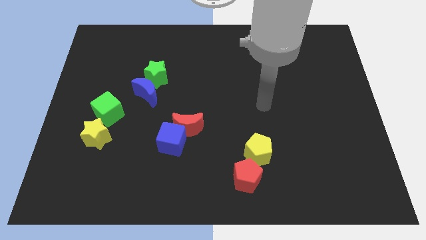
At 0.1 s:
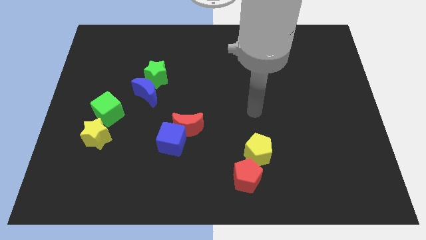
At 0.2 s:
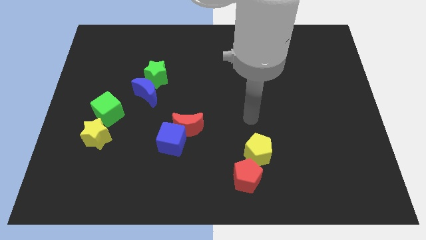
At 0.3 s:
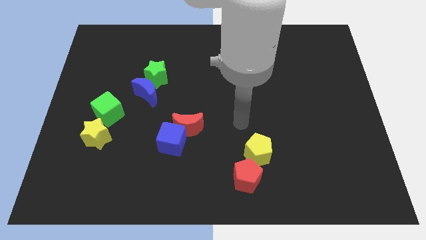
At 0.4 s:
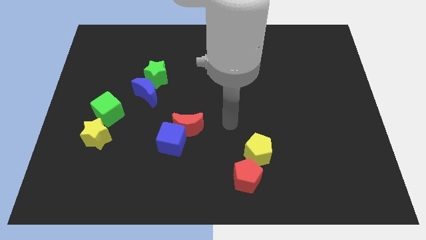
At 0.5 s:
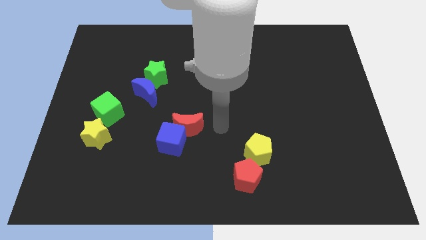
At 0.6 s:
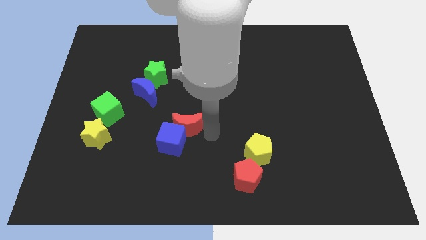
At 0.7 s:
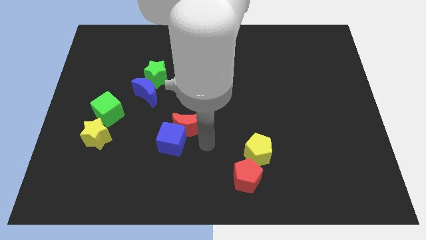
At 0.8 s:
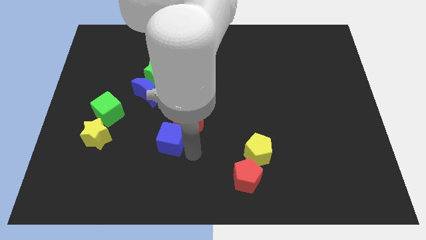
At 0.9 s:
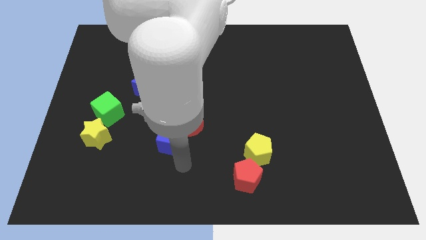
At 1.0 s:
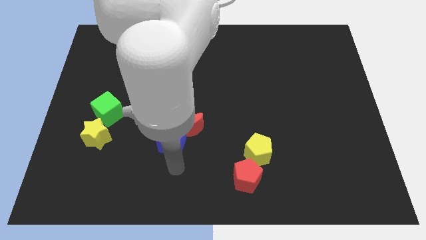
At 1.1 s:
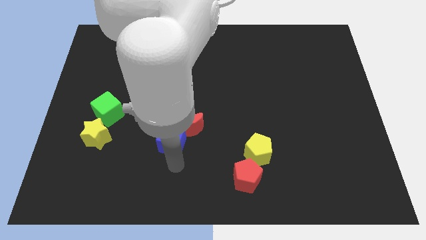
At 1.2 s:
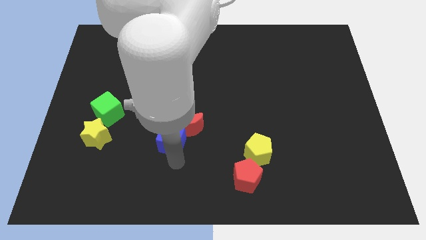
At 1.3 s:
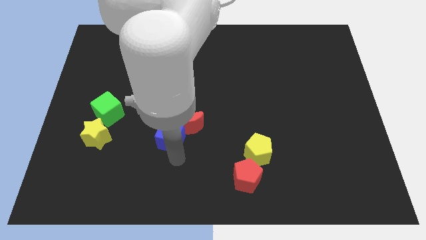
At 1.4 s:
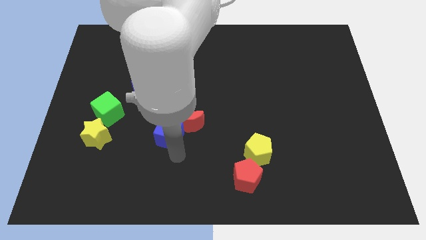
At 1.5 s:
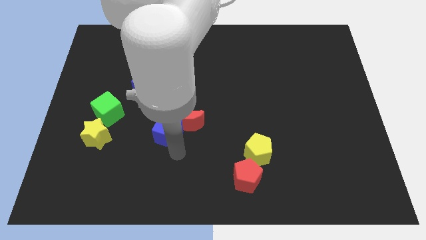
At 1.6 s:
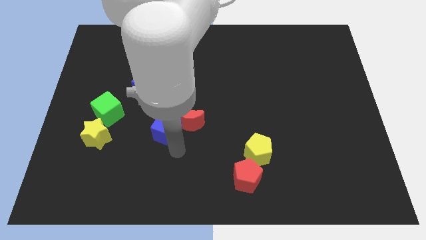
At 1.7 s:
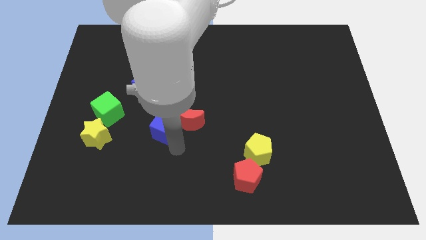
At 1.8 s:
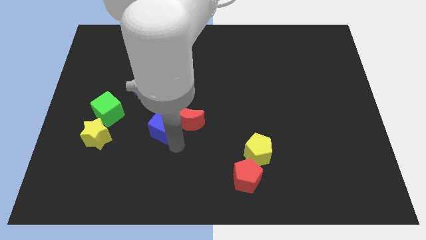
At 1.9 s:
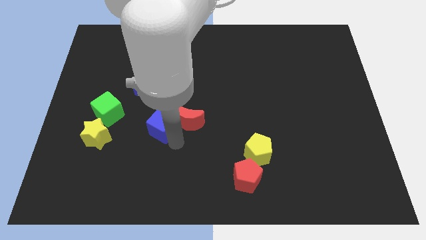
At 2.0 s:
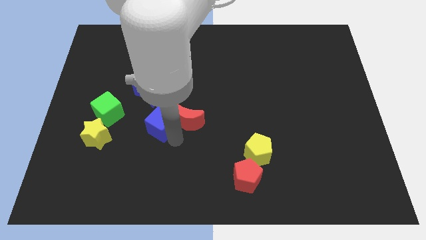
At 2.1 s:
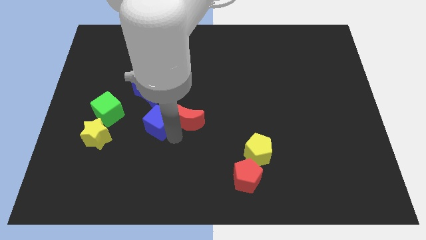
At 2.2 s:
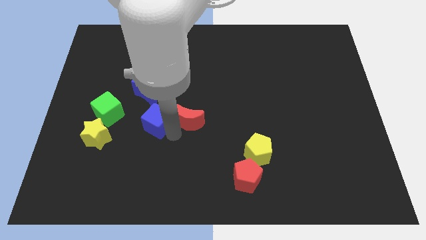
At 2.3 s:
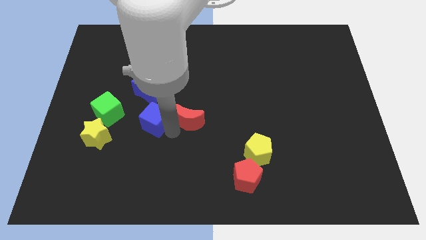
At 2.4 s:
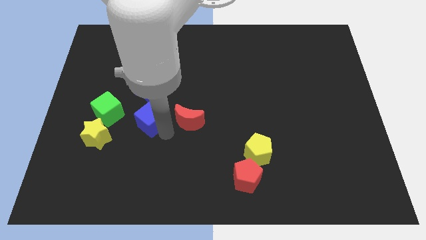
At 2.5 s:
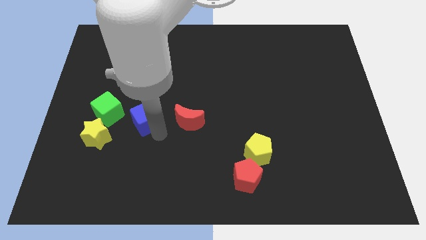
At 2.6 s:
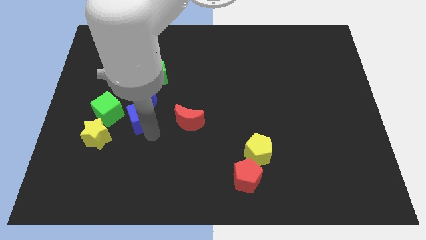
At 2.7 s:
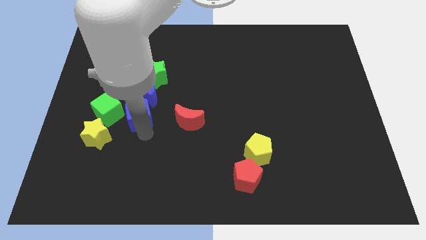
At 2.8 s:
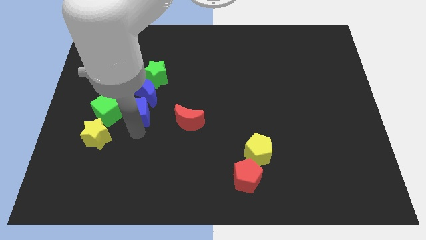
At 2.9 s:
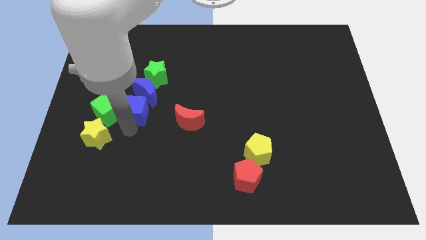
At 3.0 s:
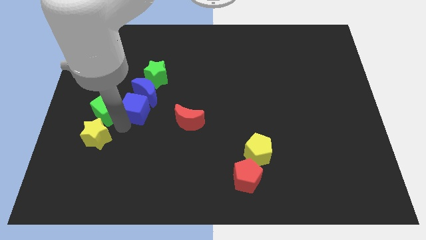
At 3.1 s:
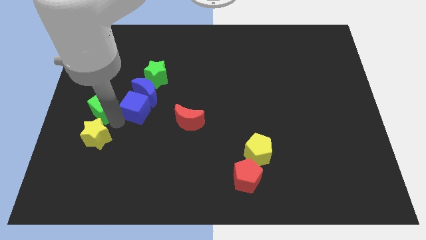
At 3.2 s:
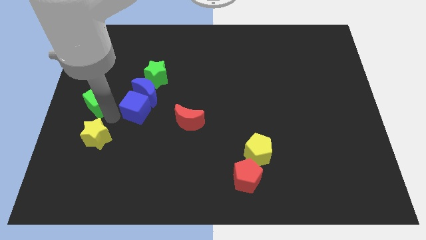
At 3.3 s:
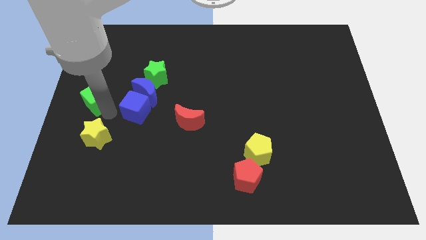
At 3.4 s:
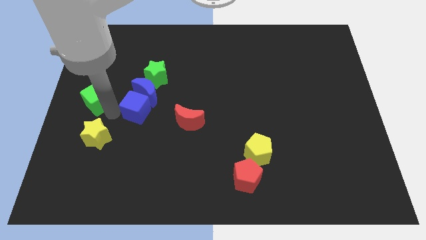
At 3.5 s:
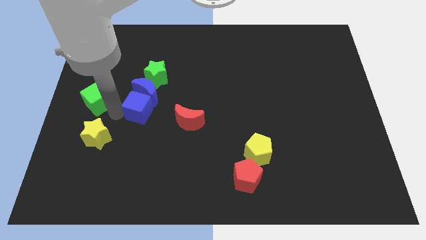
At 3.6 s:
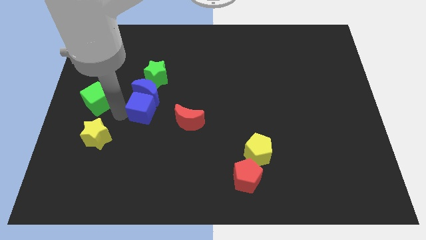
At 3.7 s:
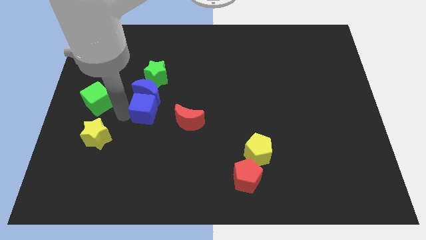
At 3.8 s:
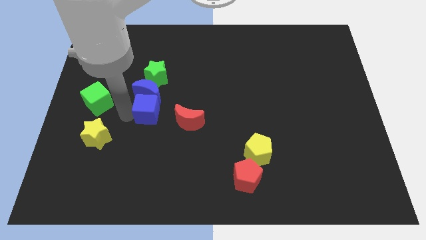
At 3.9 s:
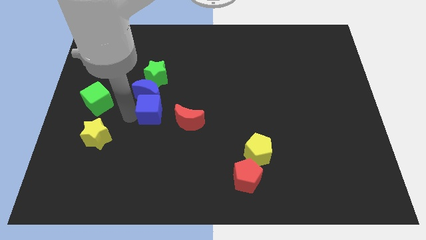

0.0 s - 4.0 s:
push the blue cube up slightly

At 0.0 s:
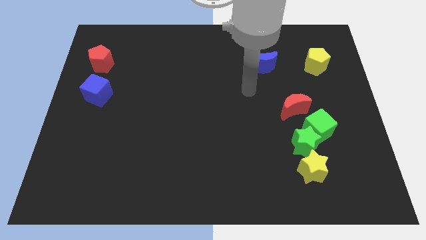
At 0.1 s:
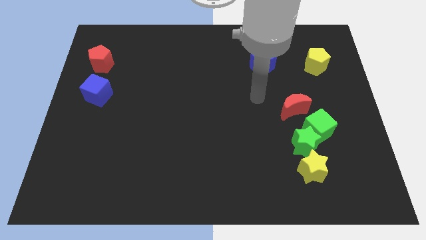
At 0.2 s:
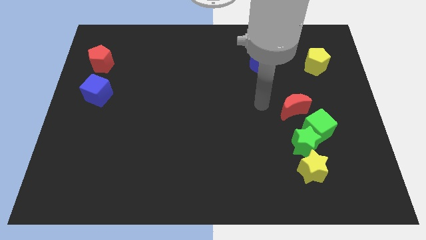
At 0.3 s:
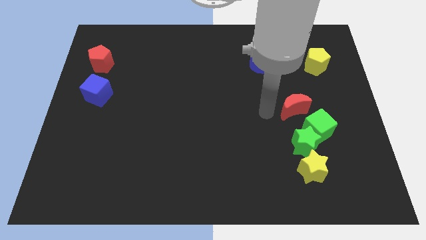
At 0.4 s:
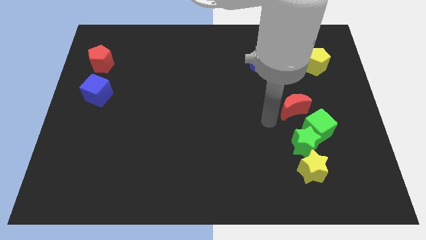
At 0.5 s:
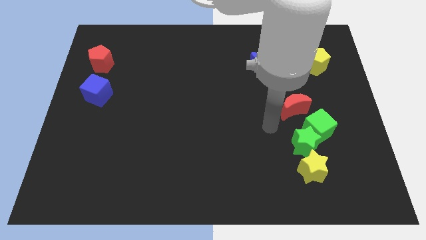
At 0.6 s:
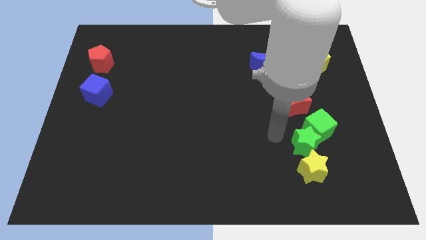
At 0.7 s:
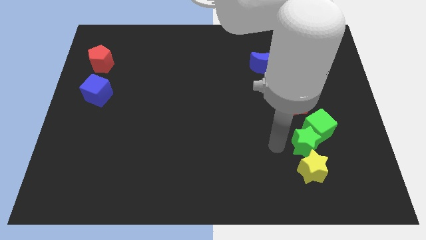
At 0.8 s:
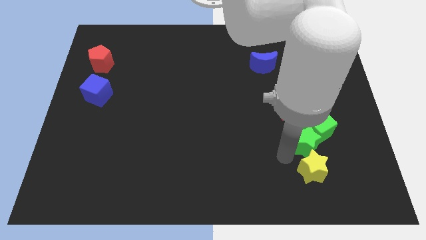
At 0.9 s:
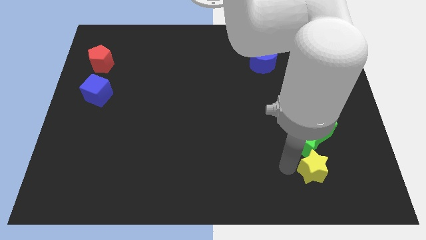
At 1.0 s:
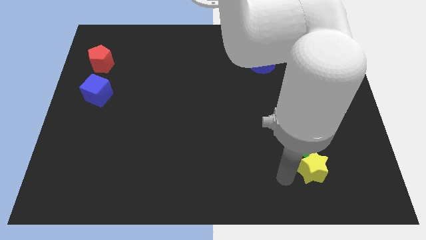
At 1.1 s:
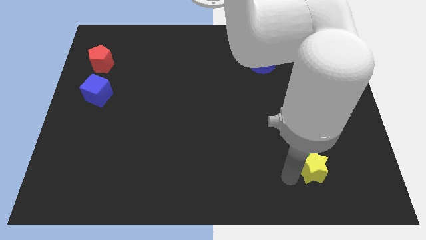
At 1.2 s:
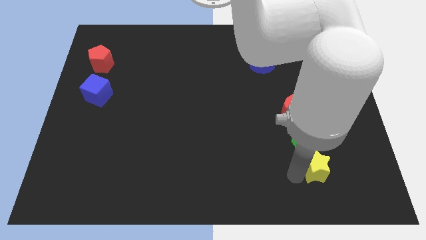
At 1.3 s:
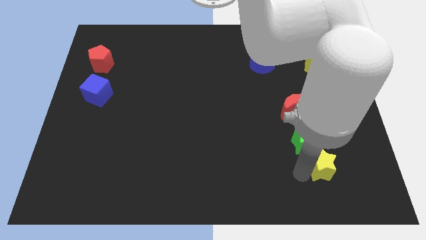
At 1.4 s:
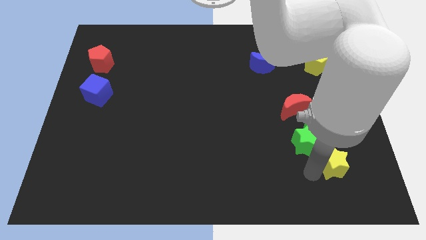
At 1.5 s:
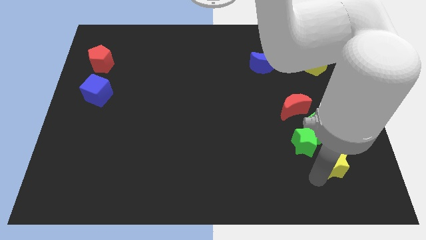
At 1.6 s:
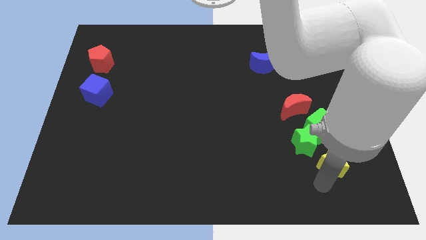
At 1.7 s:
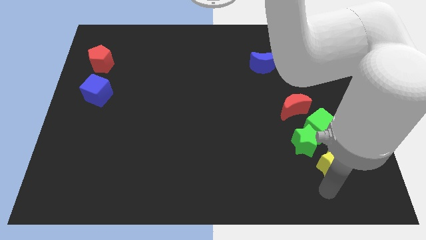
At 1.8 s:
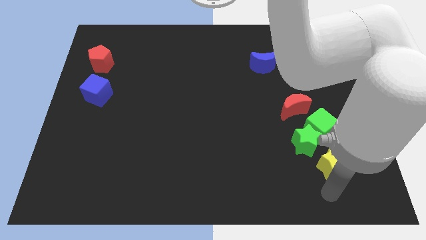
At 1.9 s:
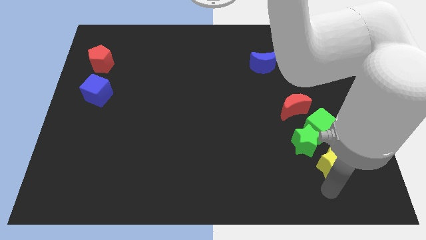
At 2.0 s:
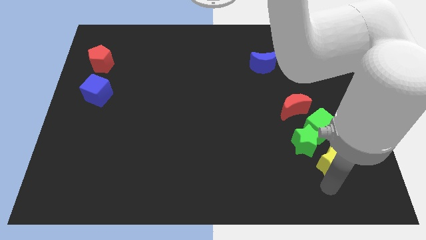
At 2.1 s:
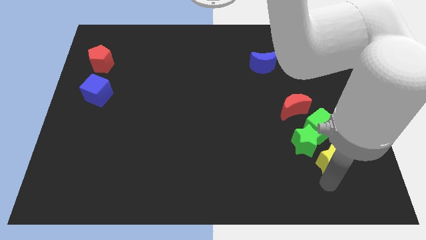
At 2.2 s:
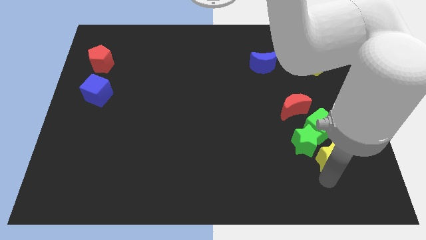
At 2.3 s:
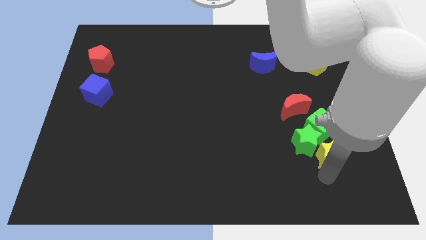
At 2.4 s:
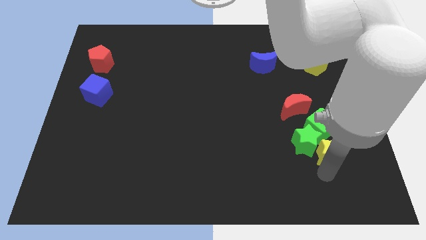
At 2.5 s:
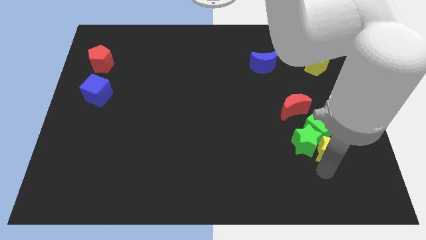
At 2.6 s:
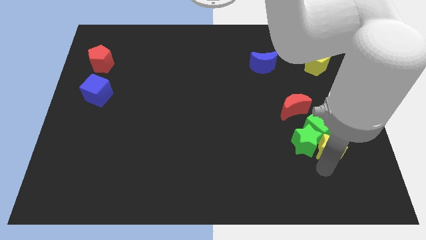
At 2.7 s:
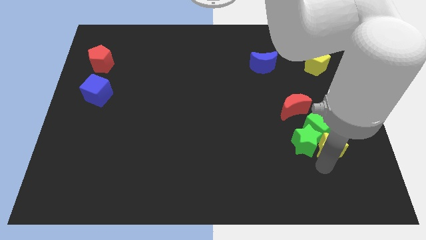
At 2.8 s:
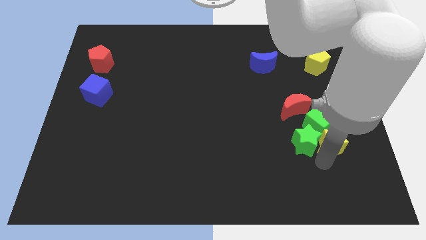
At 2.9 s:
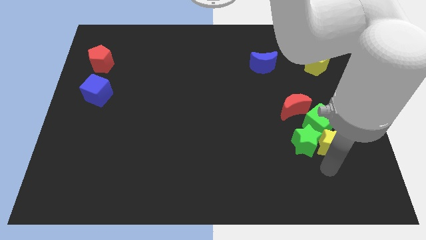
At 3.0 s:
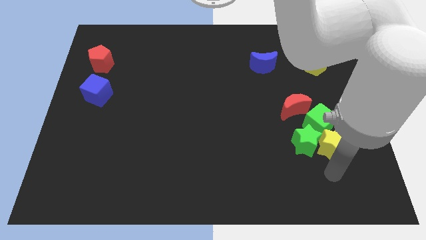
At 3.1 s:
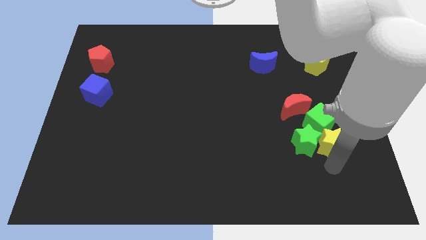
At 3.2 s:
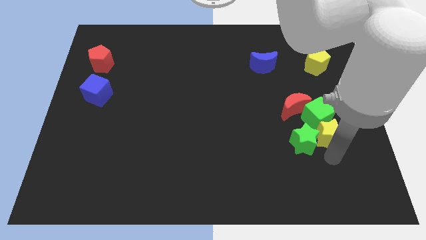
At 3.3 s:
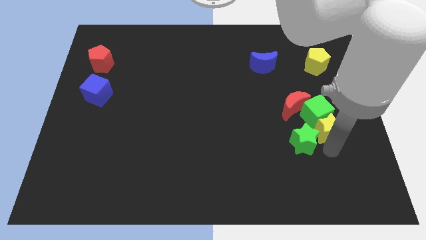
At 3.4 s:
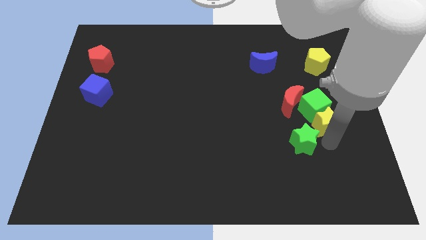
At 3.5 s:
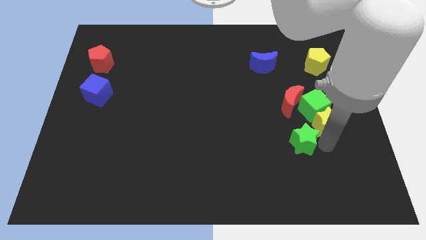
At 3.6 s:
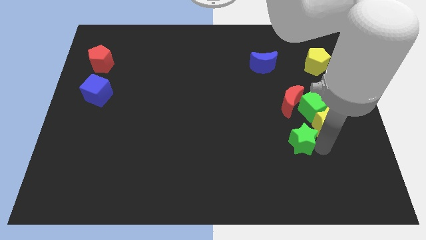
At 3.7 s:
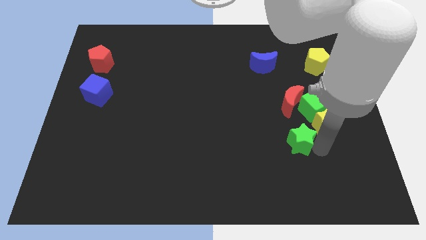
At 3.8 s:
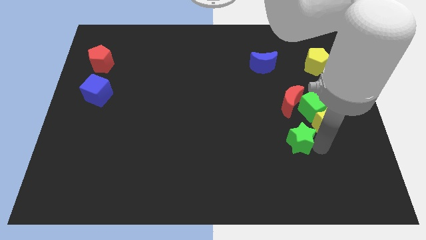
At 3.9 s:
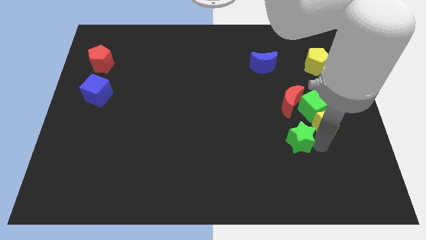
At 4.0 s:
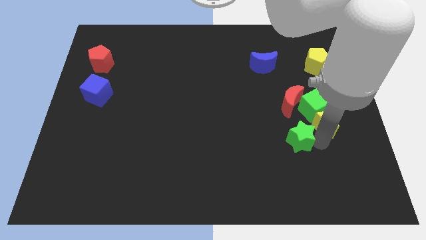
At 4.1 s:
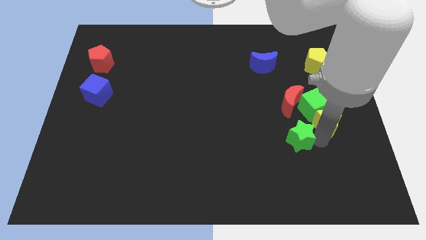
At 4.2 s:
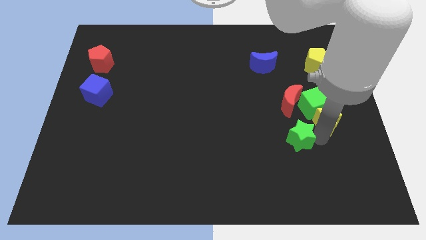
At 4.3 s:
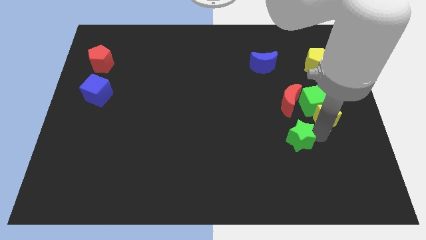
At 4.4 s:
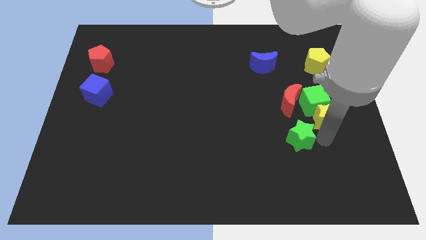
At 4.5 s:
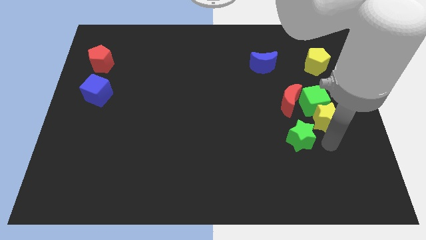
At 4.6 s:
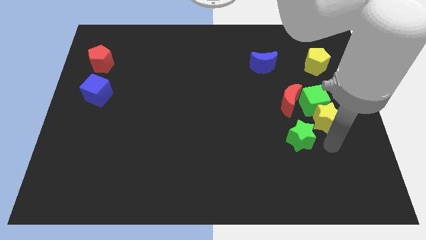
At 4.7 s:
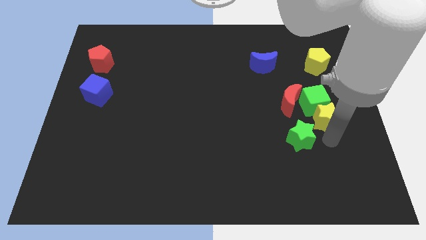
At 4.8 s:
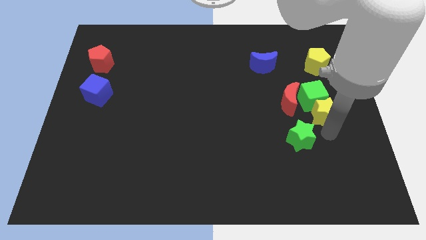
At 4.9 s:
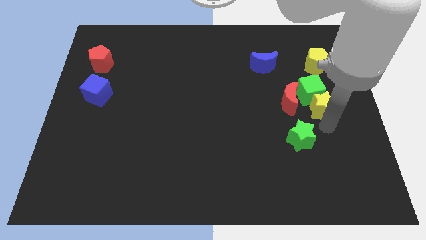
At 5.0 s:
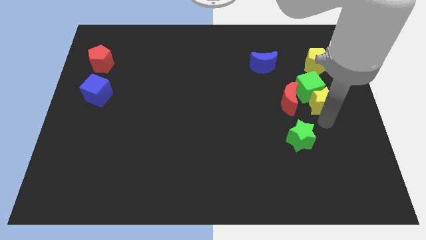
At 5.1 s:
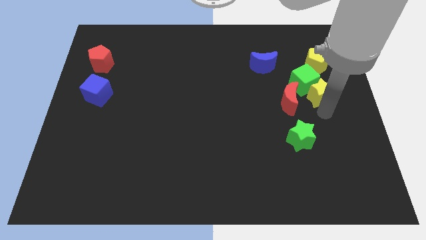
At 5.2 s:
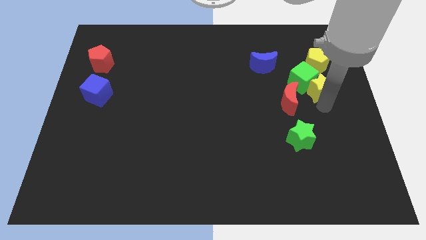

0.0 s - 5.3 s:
move the yellow star up
